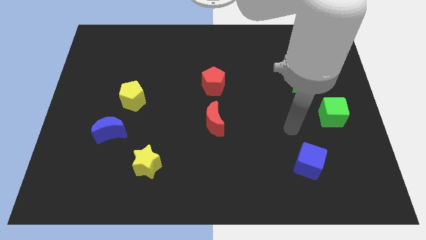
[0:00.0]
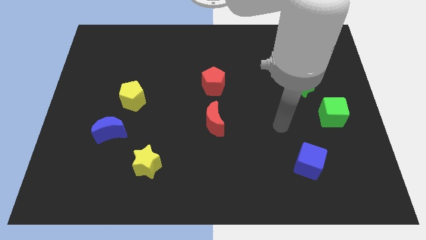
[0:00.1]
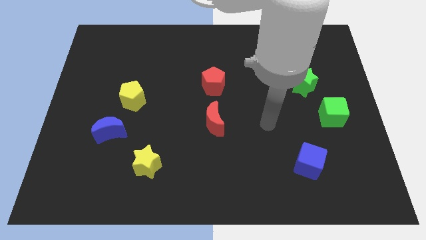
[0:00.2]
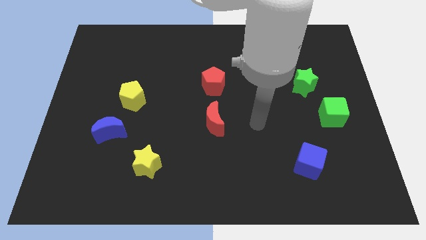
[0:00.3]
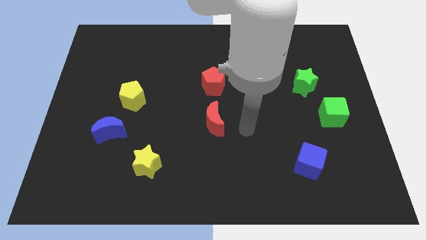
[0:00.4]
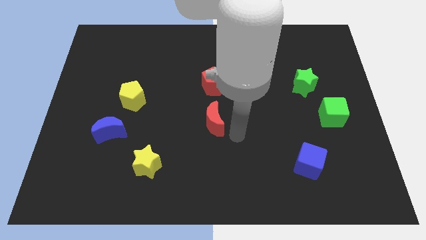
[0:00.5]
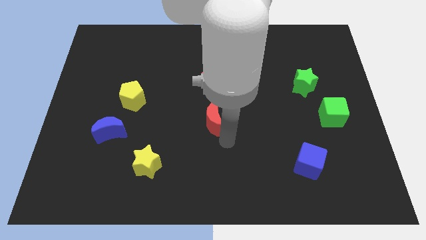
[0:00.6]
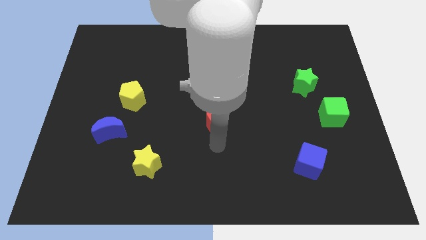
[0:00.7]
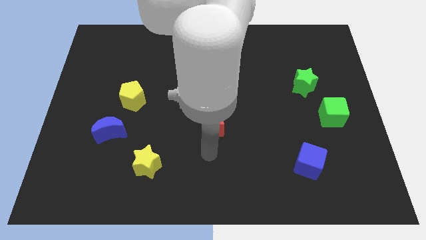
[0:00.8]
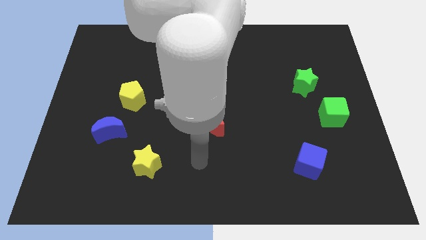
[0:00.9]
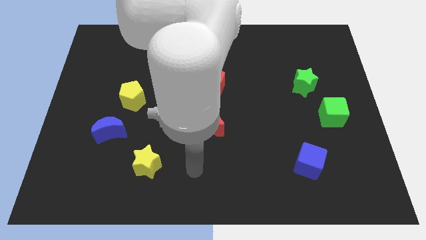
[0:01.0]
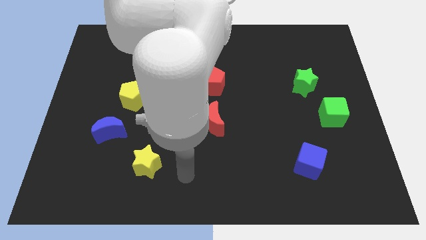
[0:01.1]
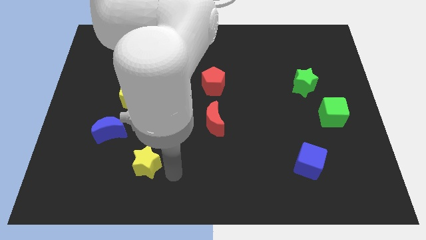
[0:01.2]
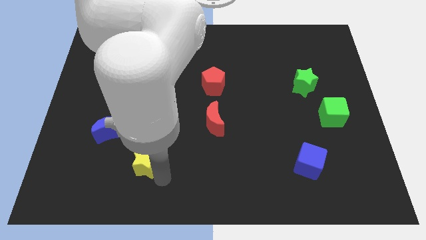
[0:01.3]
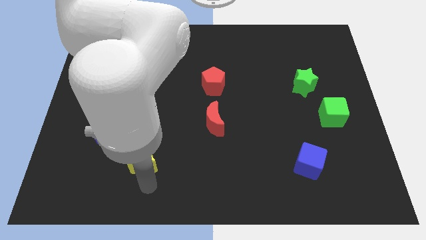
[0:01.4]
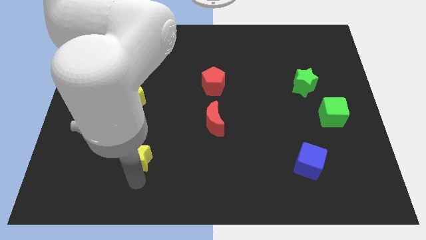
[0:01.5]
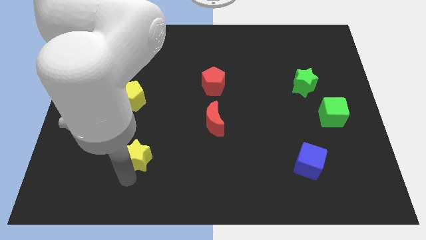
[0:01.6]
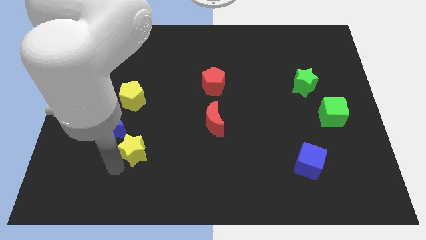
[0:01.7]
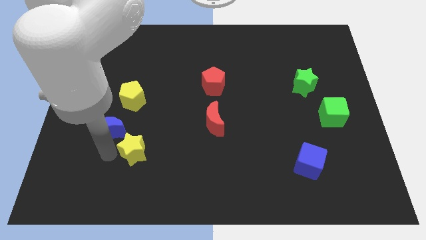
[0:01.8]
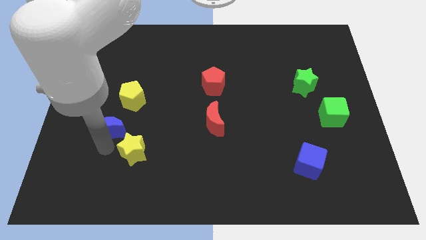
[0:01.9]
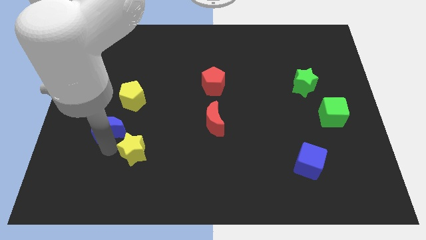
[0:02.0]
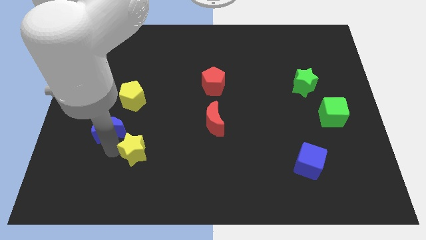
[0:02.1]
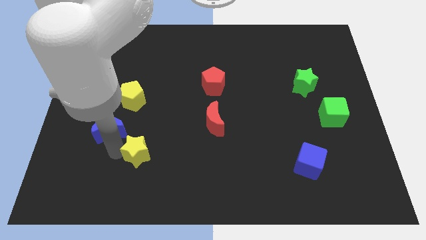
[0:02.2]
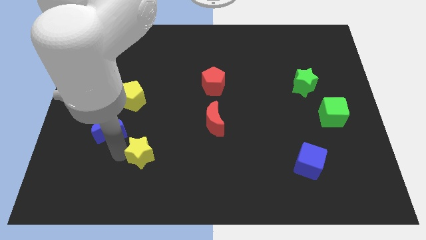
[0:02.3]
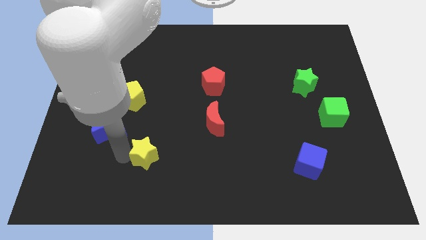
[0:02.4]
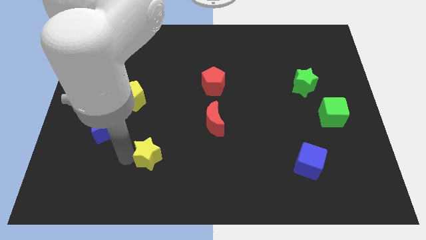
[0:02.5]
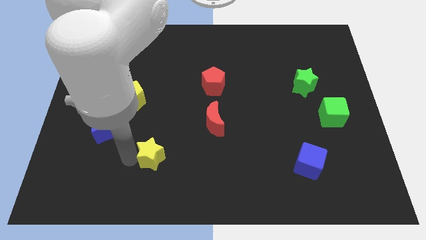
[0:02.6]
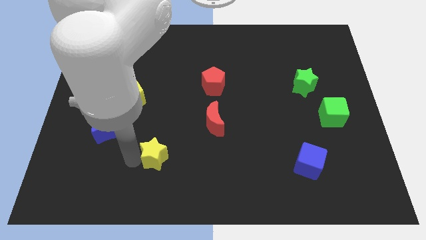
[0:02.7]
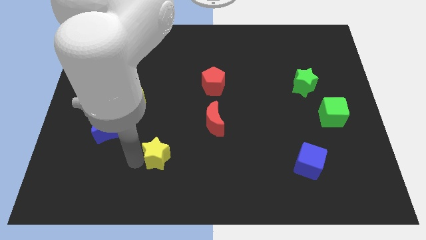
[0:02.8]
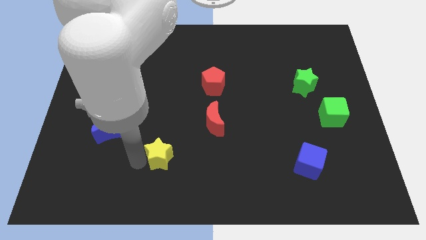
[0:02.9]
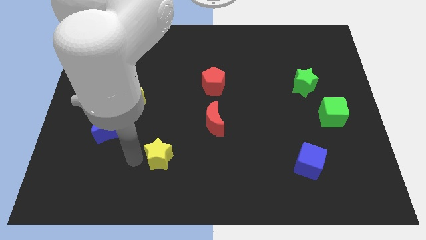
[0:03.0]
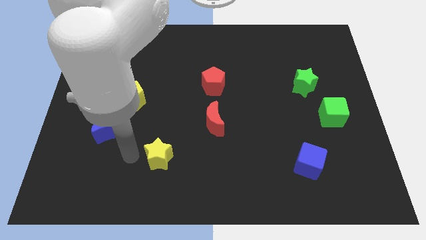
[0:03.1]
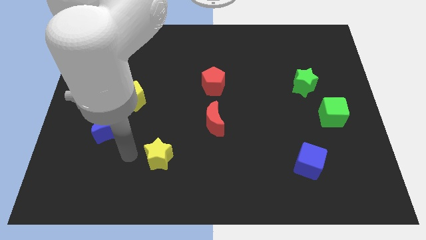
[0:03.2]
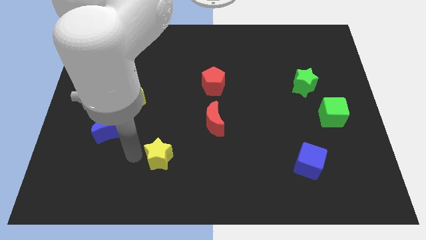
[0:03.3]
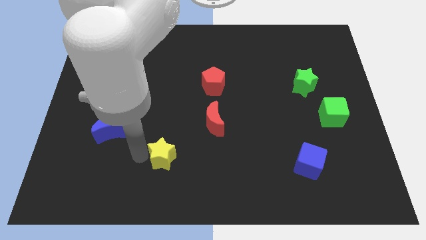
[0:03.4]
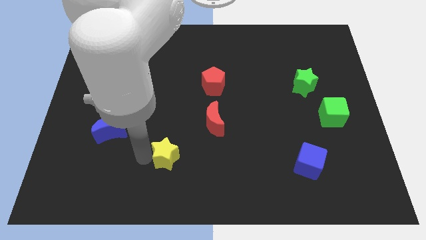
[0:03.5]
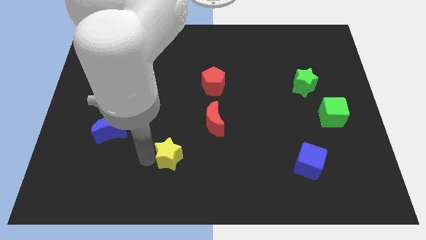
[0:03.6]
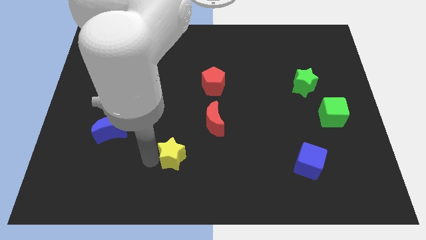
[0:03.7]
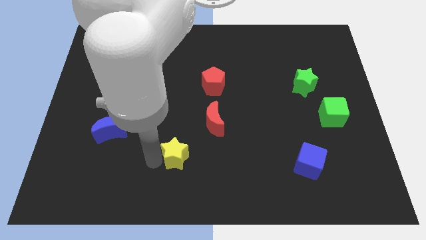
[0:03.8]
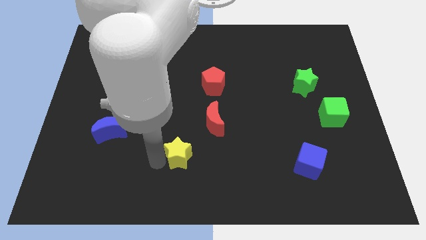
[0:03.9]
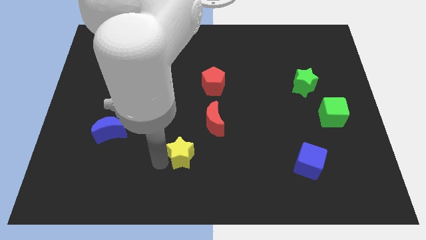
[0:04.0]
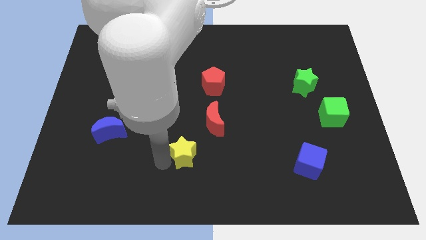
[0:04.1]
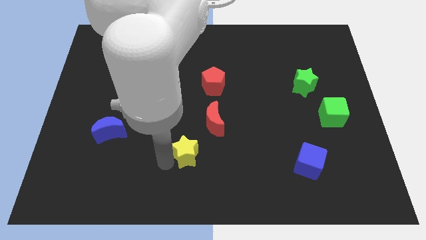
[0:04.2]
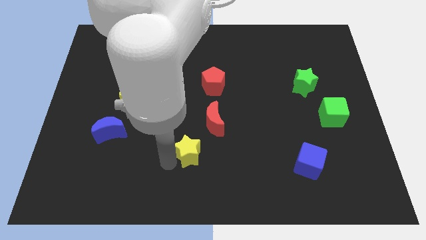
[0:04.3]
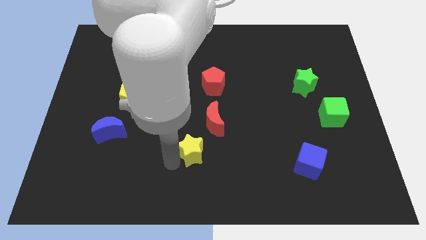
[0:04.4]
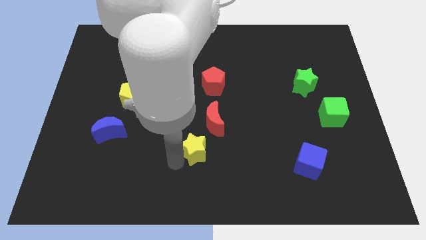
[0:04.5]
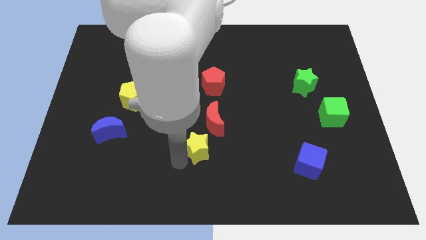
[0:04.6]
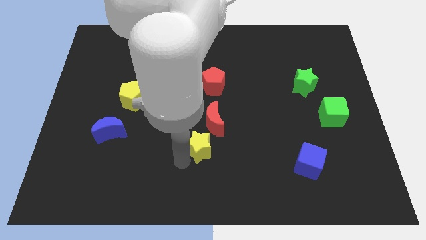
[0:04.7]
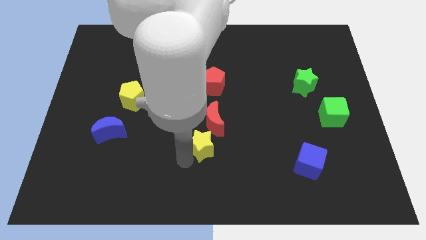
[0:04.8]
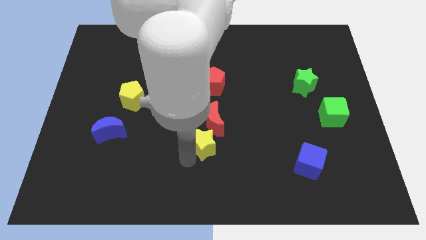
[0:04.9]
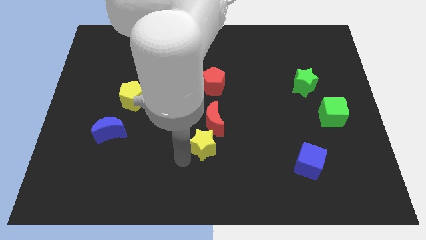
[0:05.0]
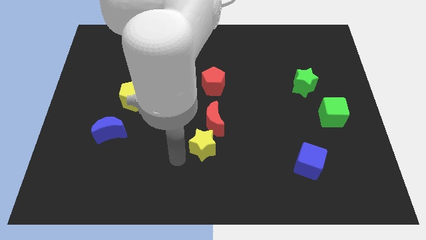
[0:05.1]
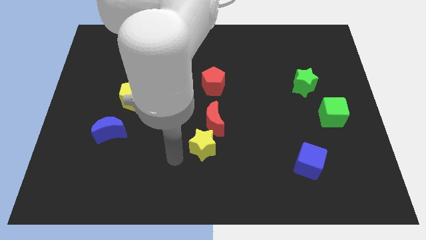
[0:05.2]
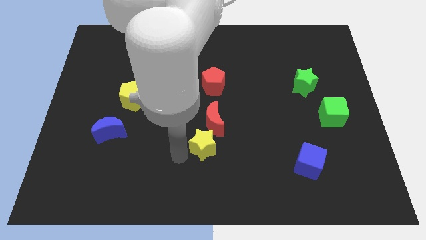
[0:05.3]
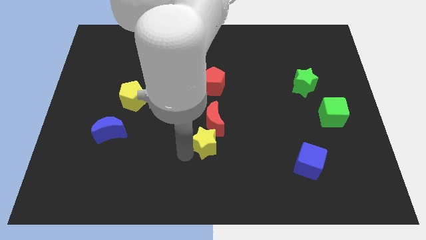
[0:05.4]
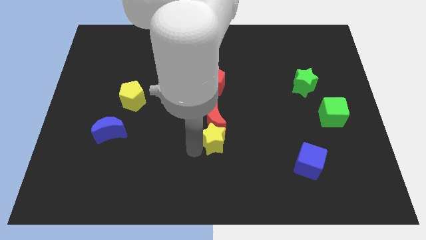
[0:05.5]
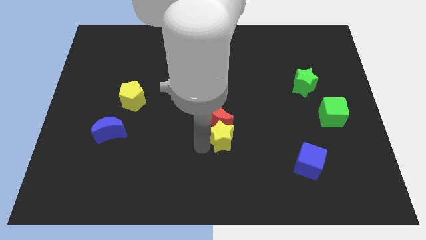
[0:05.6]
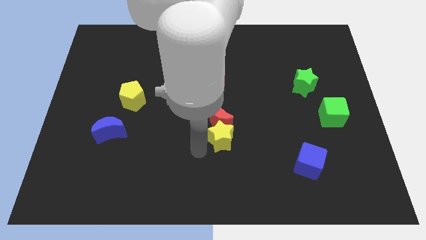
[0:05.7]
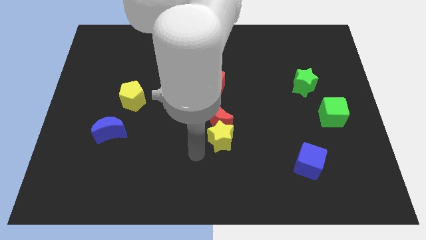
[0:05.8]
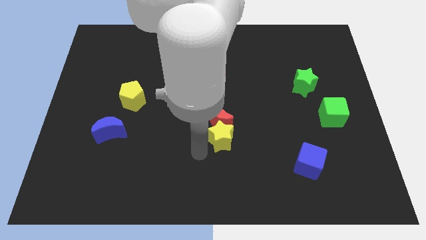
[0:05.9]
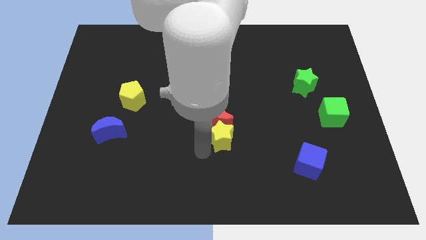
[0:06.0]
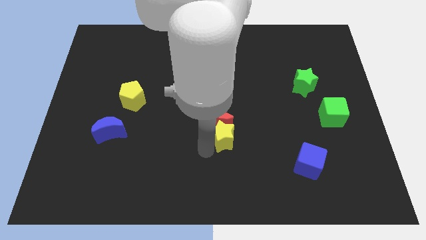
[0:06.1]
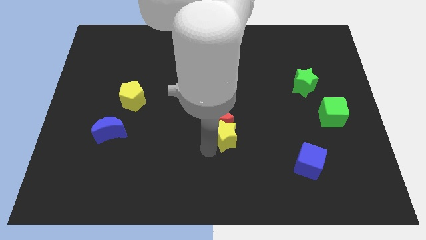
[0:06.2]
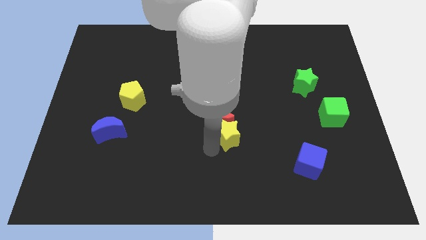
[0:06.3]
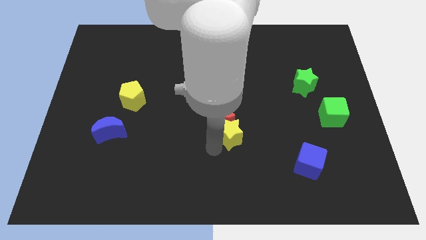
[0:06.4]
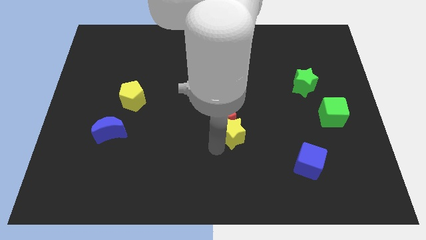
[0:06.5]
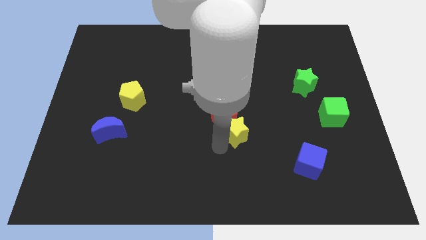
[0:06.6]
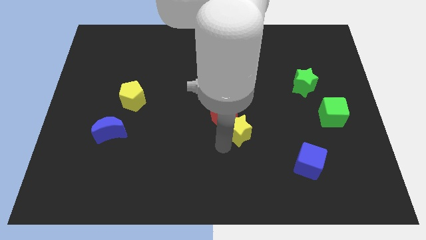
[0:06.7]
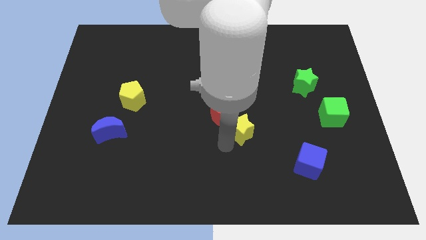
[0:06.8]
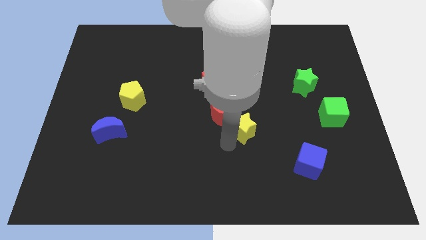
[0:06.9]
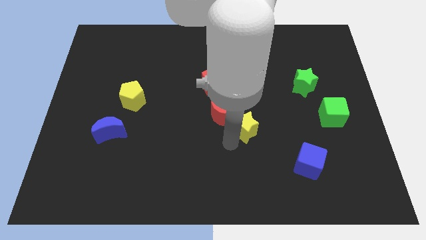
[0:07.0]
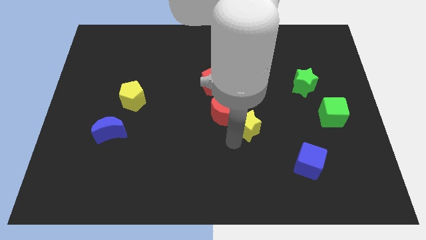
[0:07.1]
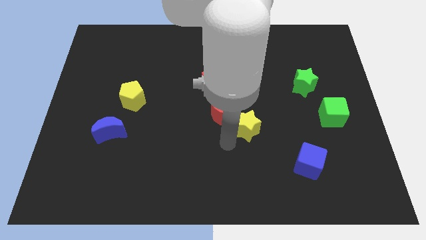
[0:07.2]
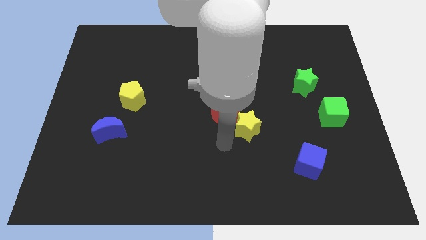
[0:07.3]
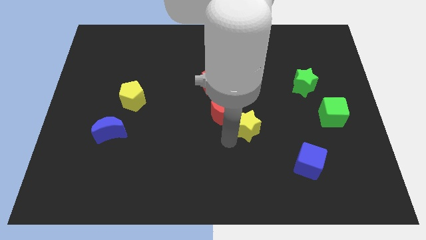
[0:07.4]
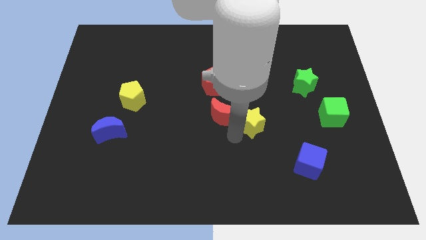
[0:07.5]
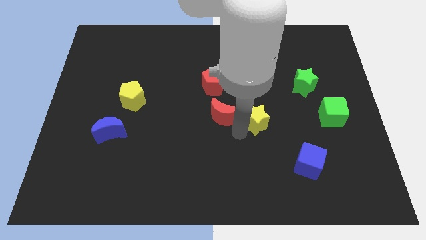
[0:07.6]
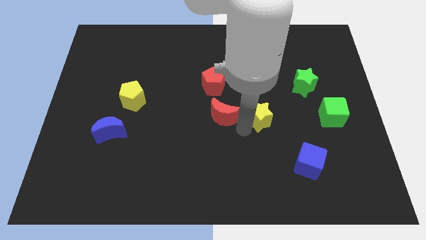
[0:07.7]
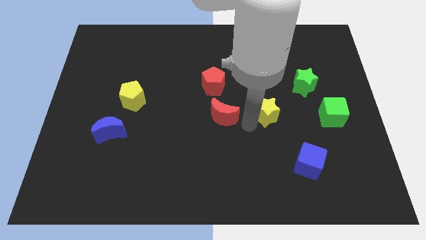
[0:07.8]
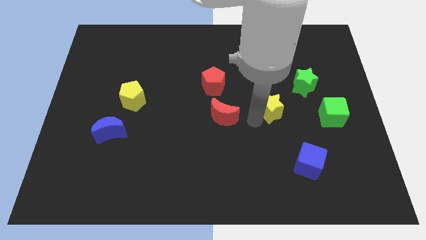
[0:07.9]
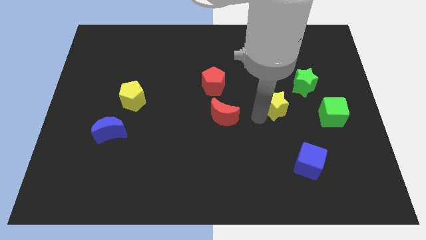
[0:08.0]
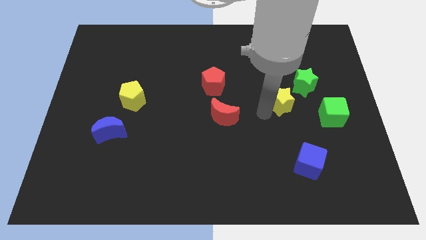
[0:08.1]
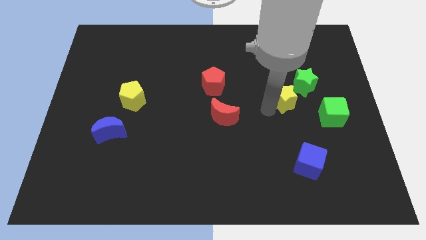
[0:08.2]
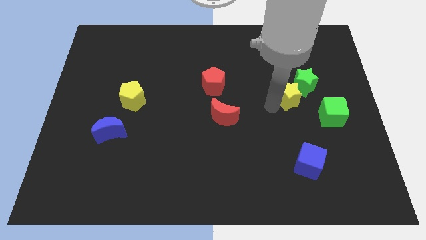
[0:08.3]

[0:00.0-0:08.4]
put the yellow star to the green star
